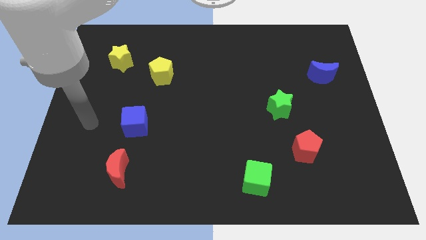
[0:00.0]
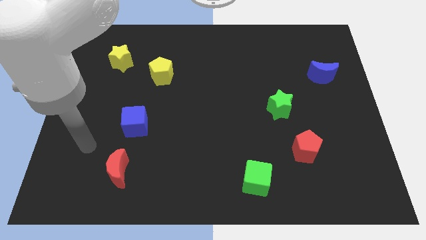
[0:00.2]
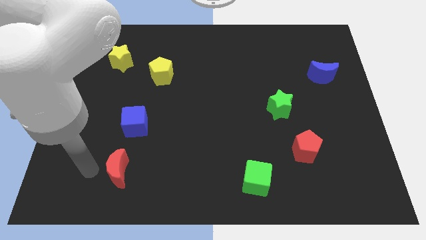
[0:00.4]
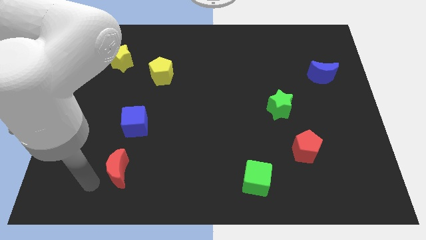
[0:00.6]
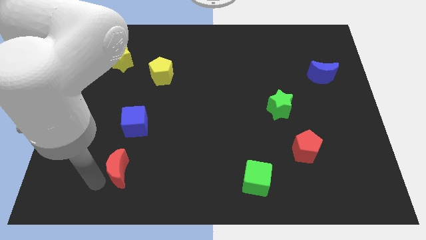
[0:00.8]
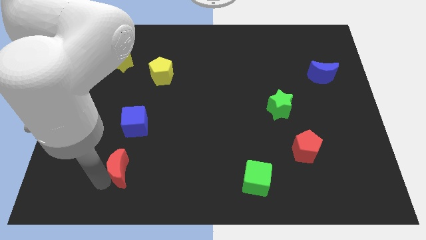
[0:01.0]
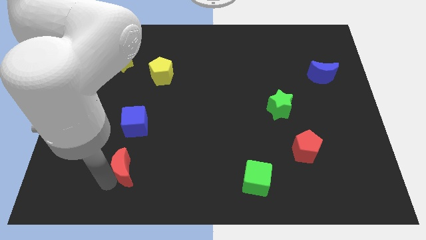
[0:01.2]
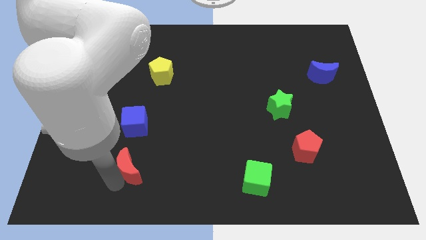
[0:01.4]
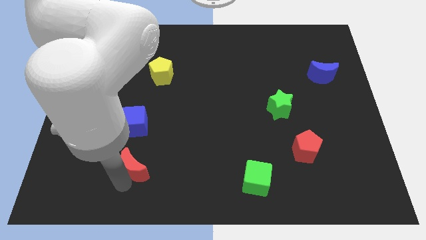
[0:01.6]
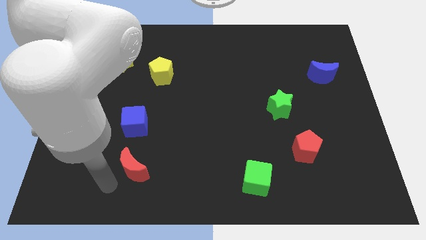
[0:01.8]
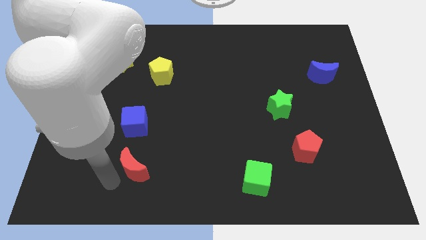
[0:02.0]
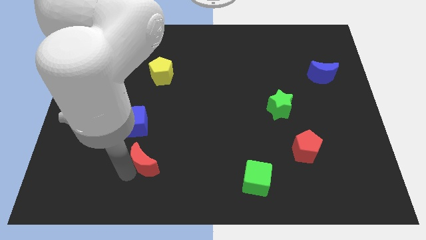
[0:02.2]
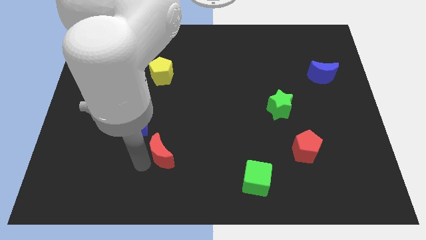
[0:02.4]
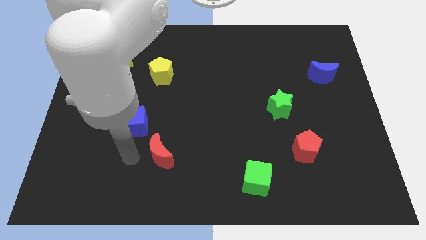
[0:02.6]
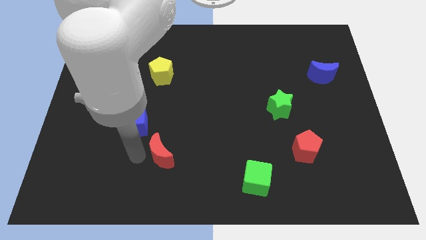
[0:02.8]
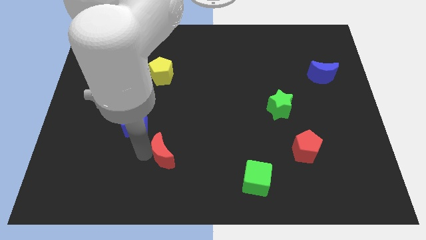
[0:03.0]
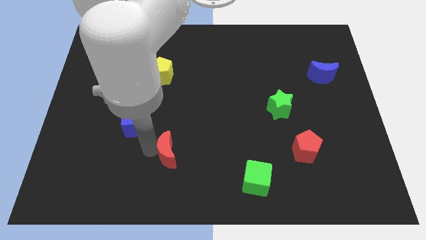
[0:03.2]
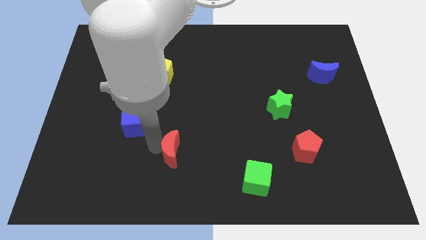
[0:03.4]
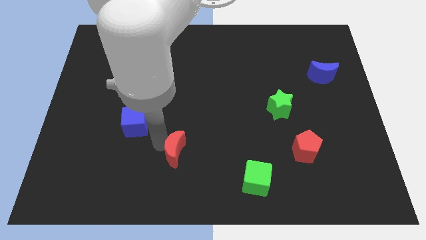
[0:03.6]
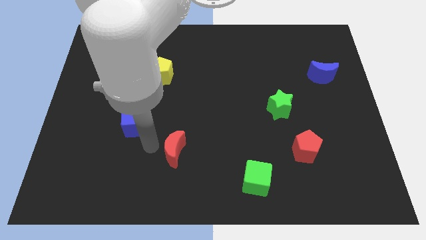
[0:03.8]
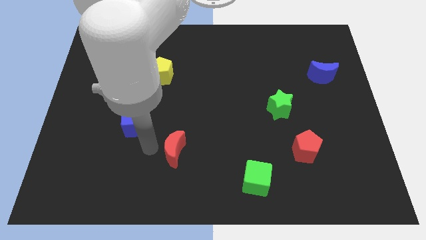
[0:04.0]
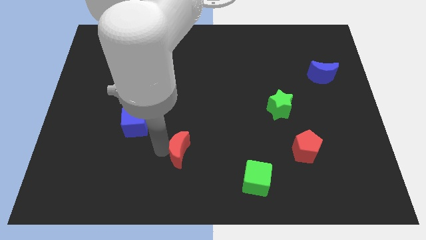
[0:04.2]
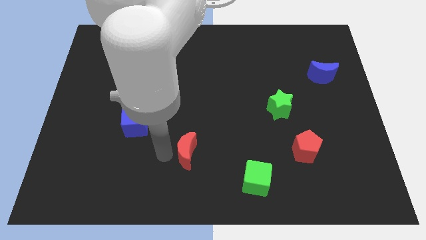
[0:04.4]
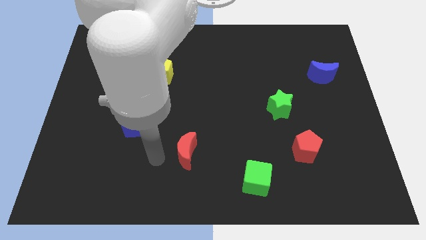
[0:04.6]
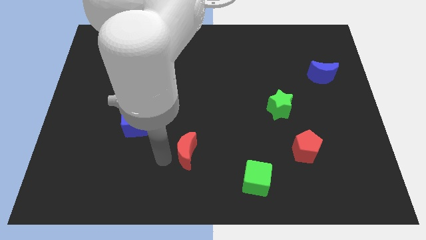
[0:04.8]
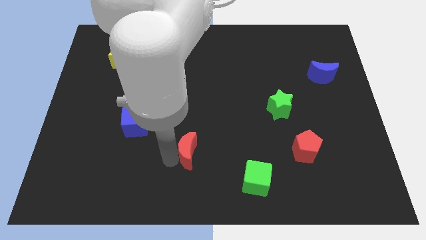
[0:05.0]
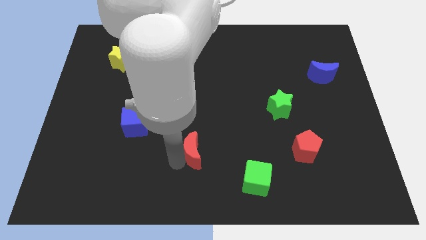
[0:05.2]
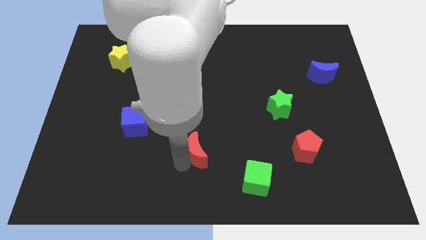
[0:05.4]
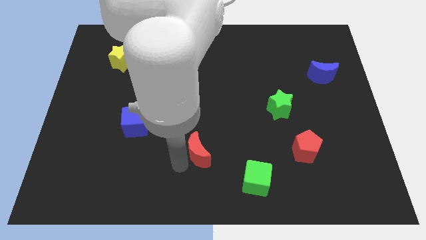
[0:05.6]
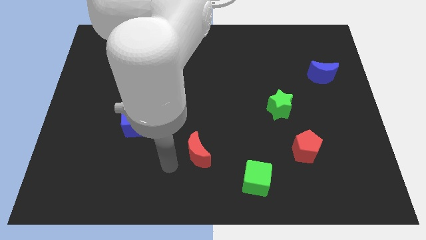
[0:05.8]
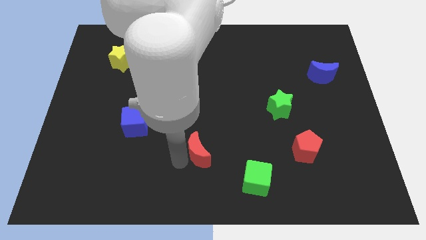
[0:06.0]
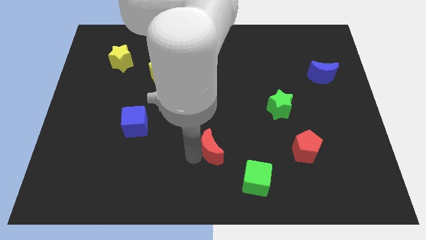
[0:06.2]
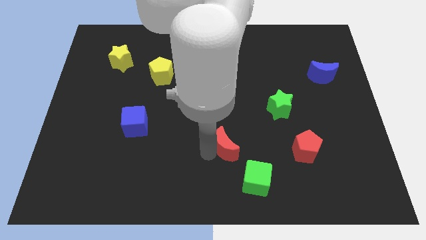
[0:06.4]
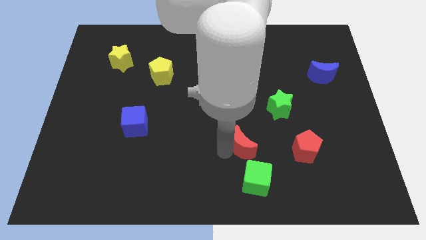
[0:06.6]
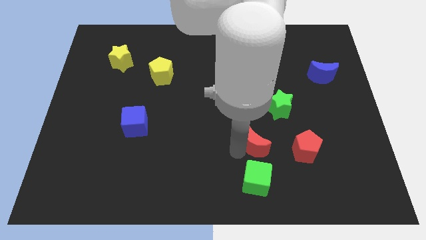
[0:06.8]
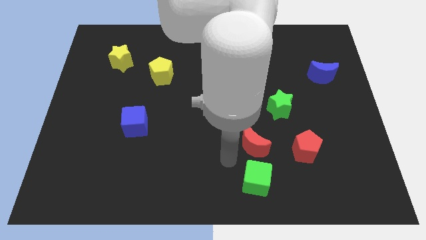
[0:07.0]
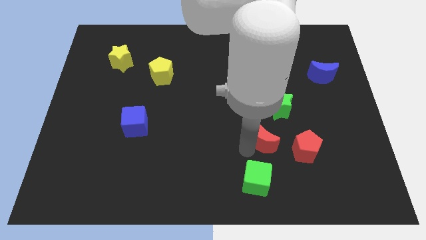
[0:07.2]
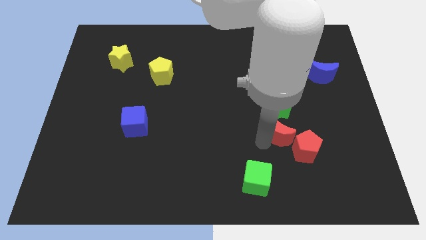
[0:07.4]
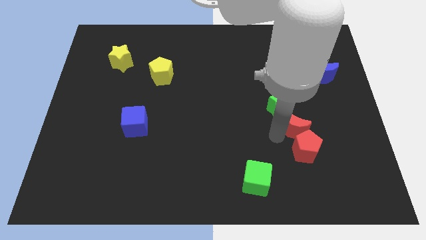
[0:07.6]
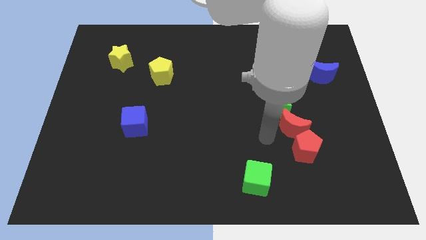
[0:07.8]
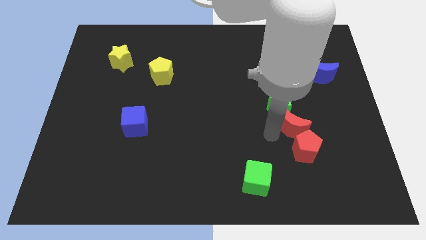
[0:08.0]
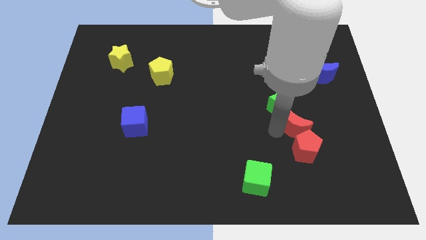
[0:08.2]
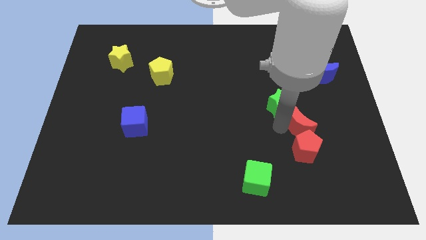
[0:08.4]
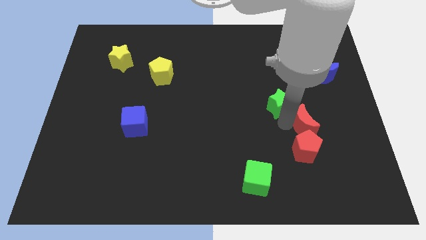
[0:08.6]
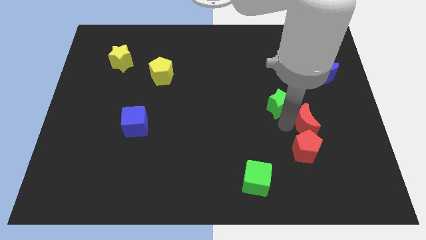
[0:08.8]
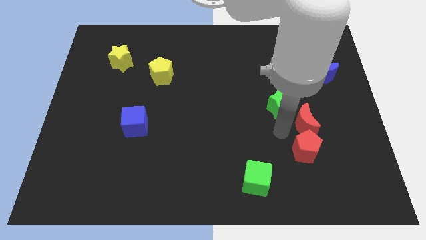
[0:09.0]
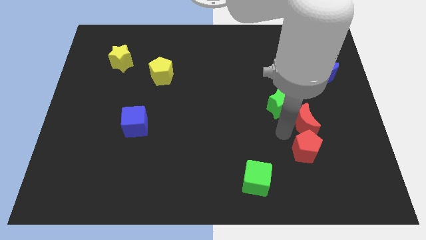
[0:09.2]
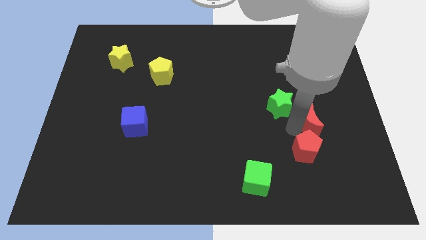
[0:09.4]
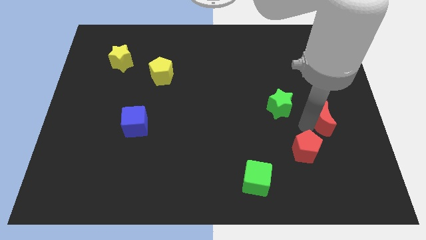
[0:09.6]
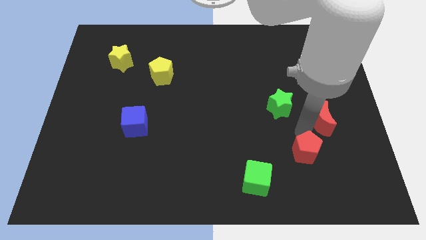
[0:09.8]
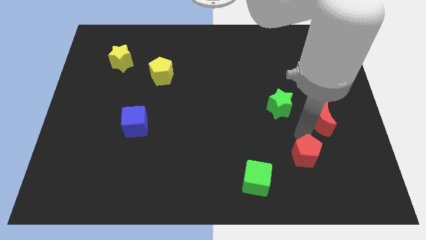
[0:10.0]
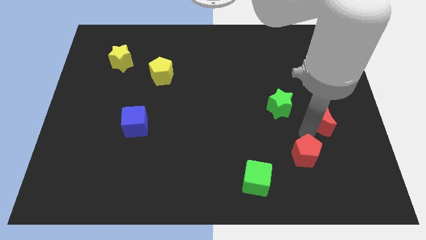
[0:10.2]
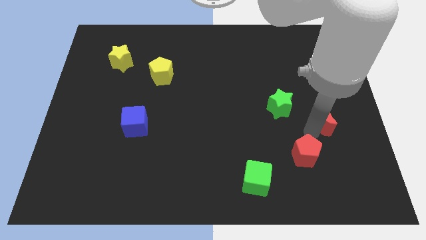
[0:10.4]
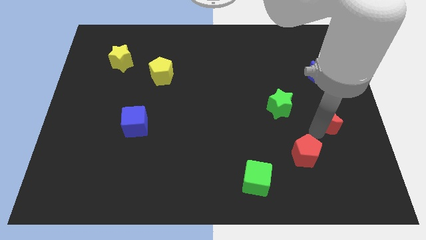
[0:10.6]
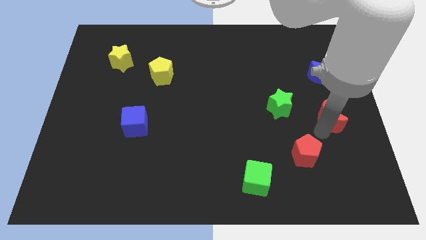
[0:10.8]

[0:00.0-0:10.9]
slide the red moon to the center right

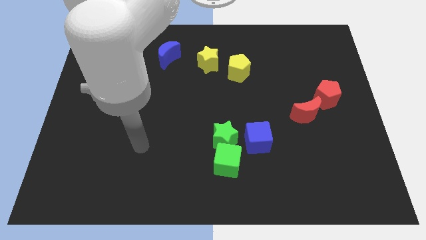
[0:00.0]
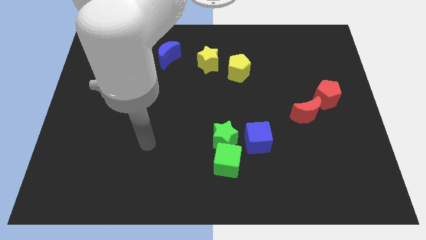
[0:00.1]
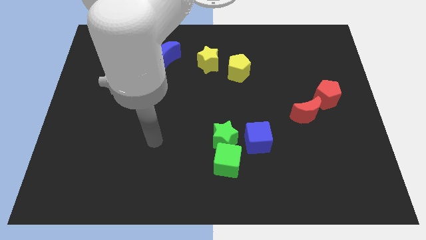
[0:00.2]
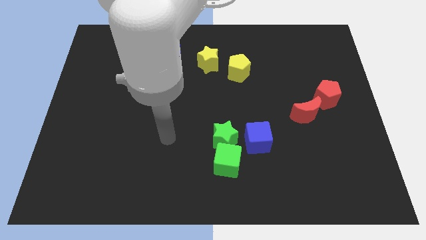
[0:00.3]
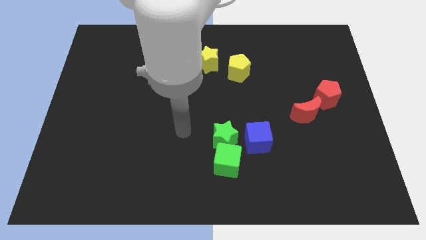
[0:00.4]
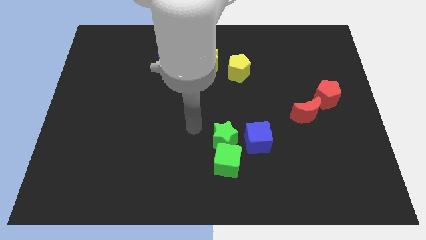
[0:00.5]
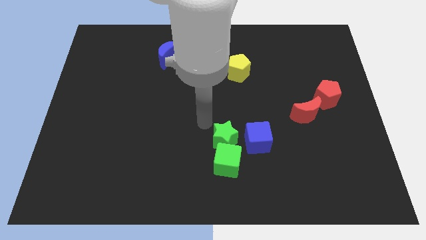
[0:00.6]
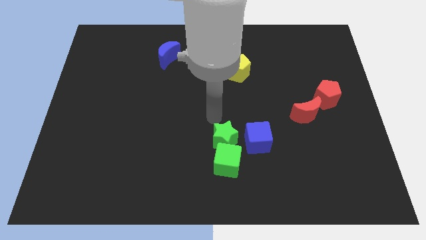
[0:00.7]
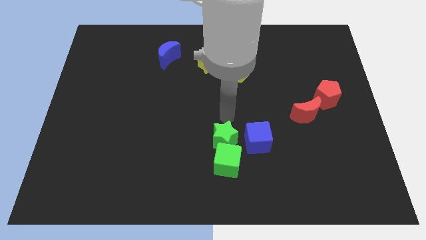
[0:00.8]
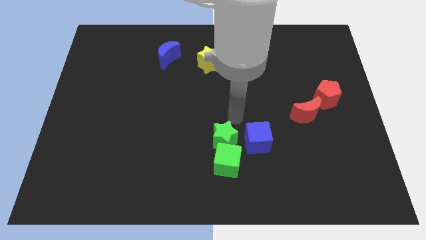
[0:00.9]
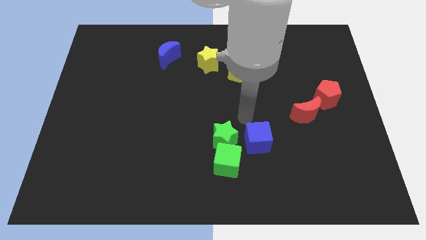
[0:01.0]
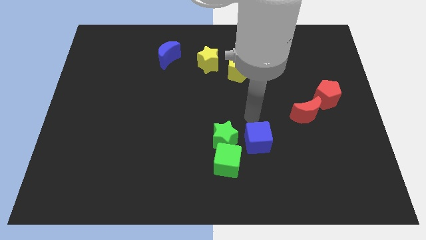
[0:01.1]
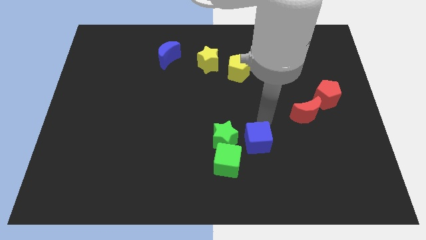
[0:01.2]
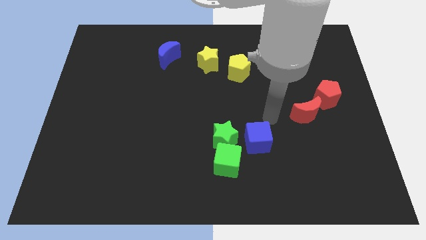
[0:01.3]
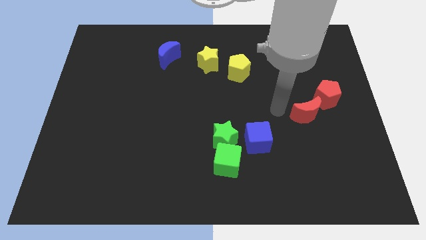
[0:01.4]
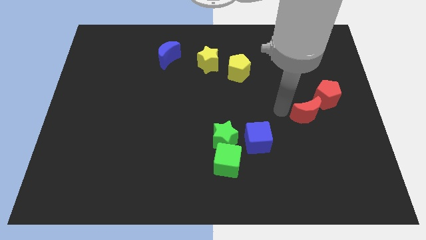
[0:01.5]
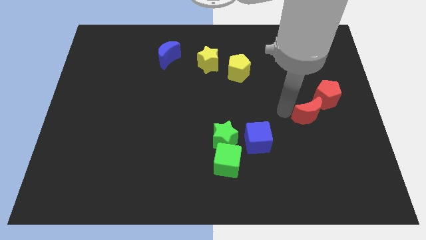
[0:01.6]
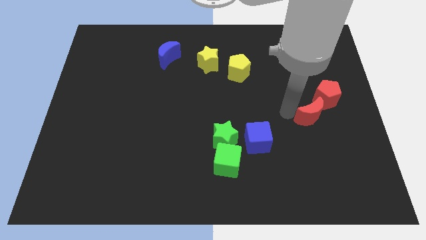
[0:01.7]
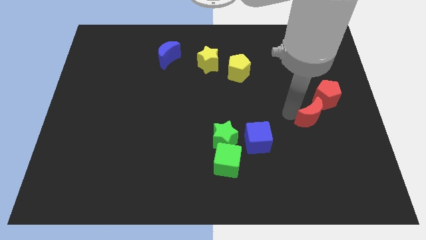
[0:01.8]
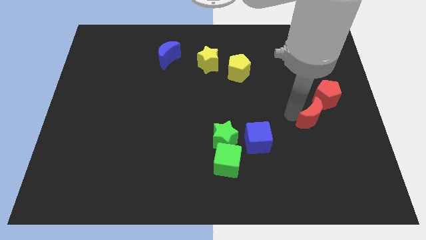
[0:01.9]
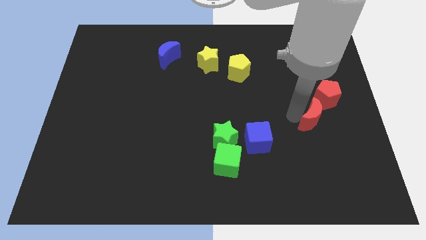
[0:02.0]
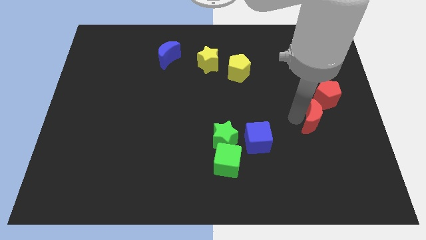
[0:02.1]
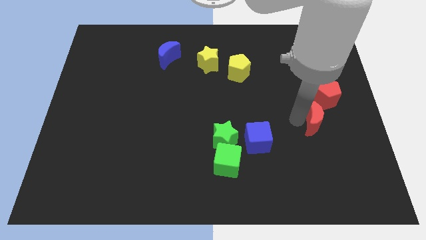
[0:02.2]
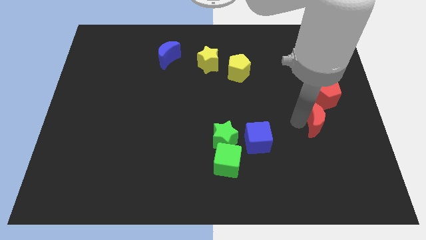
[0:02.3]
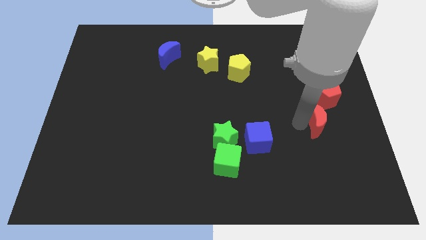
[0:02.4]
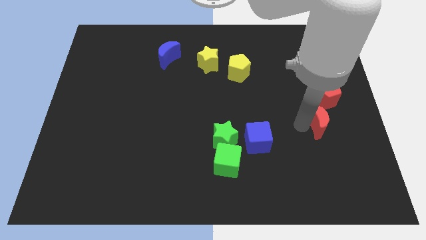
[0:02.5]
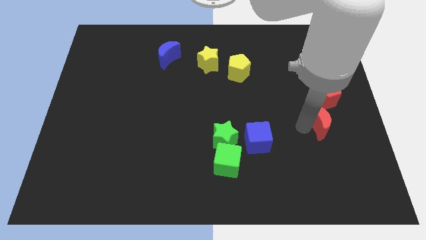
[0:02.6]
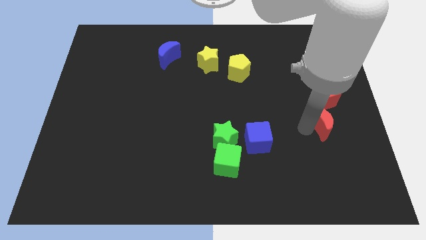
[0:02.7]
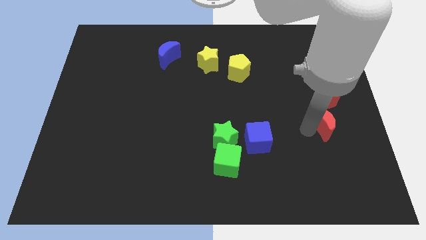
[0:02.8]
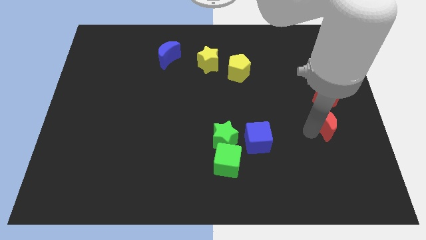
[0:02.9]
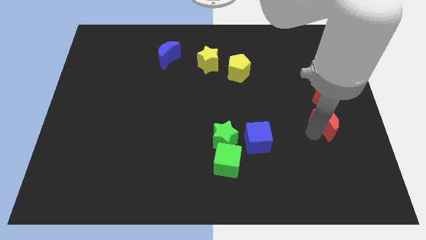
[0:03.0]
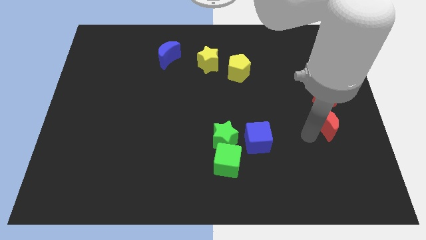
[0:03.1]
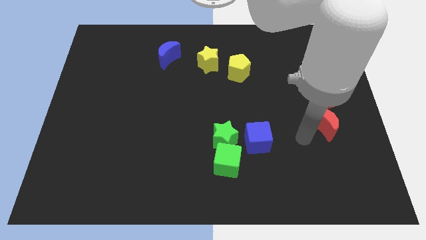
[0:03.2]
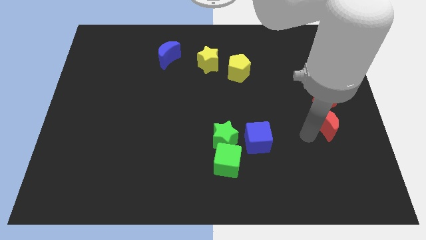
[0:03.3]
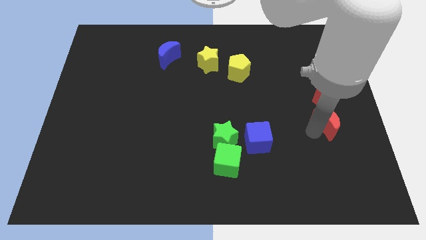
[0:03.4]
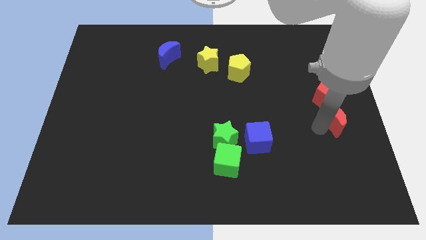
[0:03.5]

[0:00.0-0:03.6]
push the red moon to the center right
